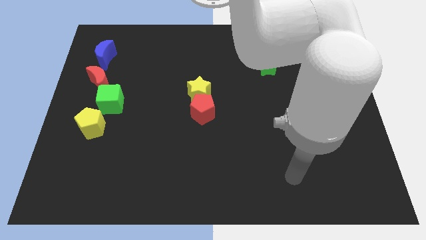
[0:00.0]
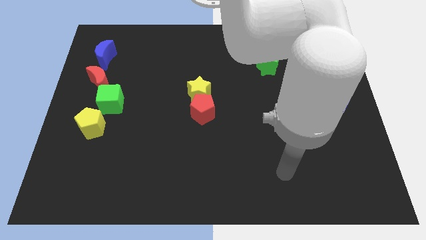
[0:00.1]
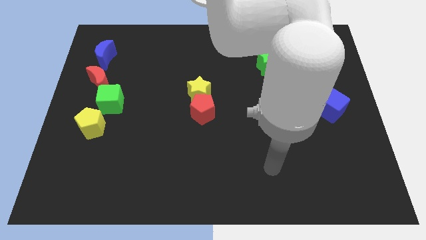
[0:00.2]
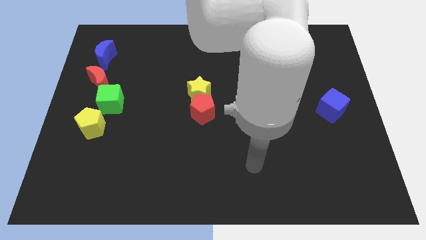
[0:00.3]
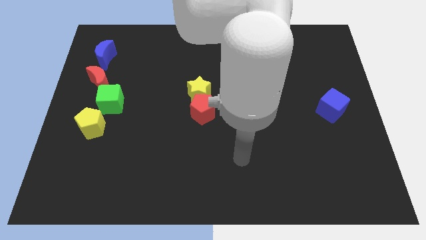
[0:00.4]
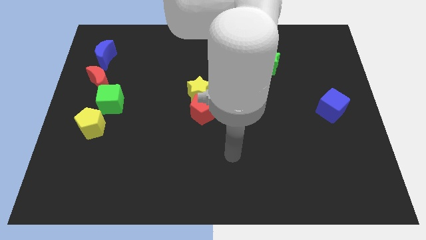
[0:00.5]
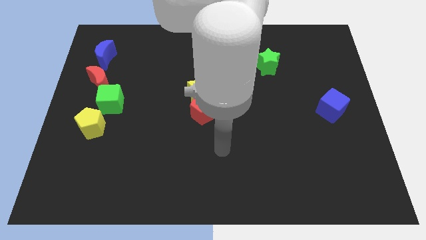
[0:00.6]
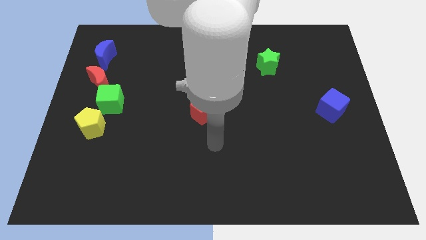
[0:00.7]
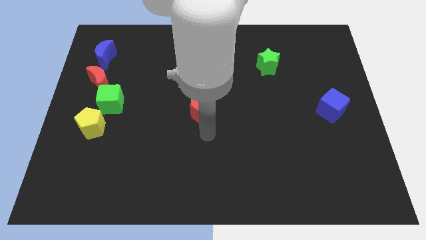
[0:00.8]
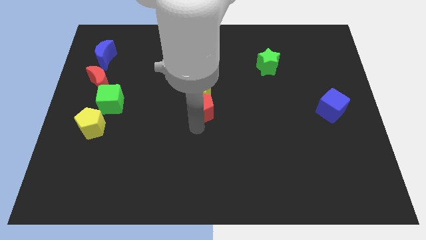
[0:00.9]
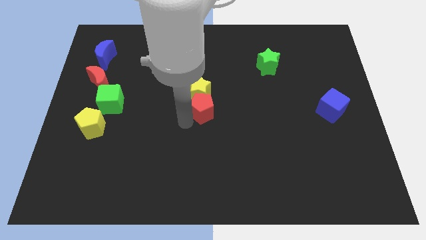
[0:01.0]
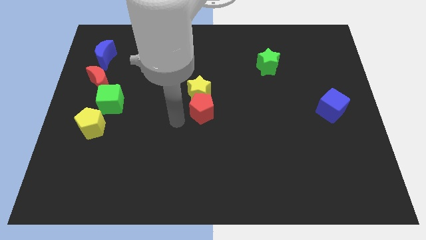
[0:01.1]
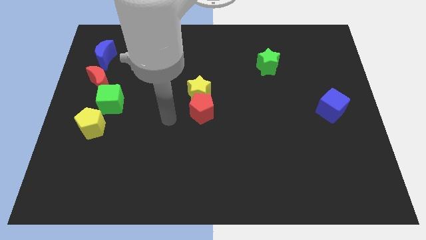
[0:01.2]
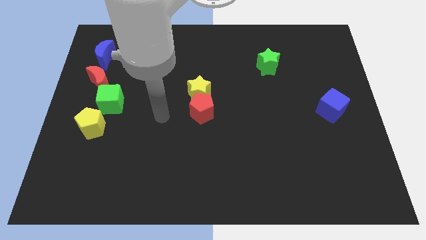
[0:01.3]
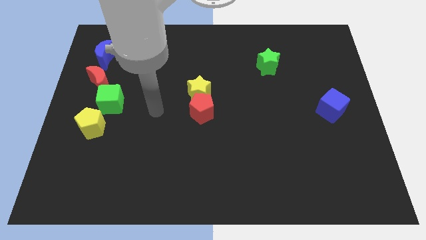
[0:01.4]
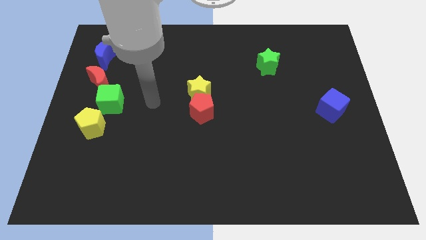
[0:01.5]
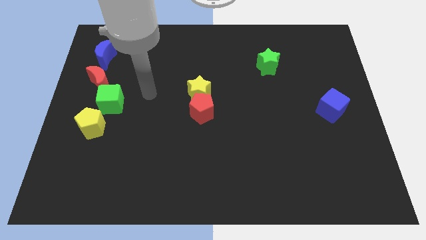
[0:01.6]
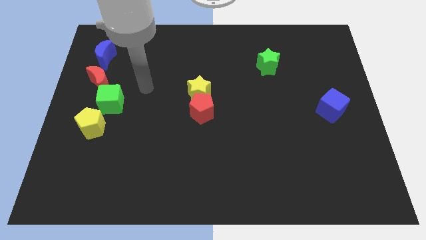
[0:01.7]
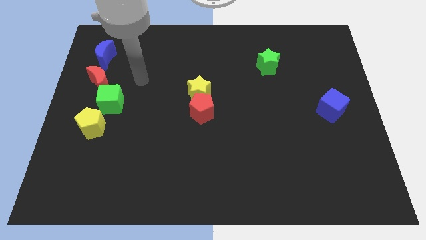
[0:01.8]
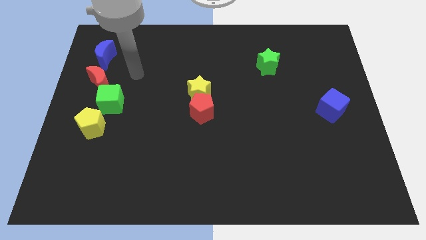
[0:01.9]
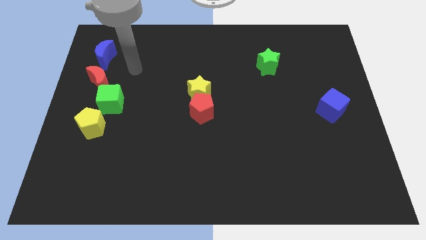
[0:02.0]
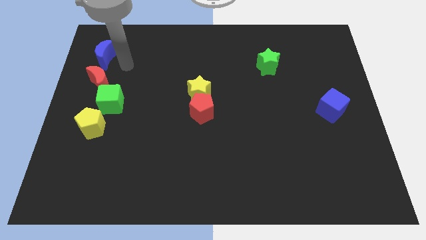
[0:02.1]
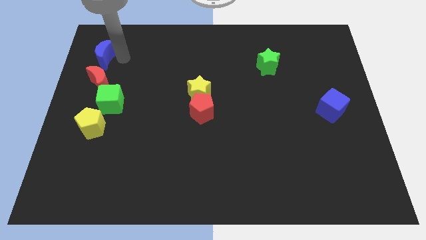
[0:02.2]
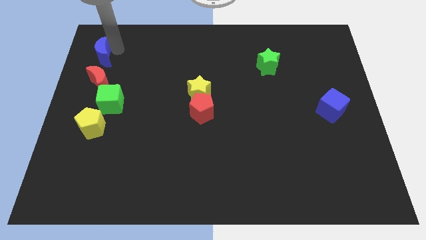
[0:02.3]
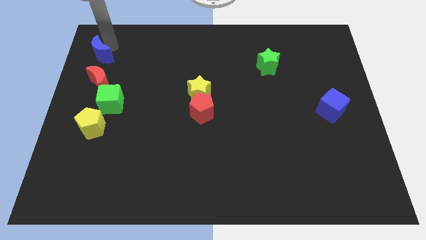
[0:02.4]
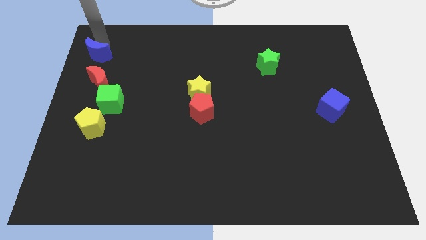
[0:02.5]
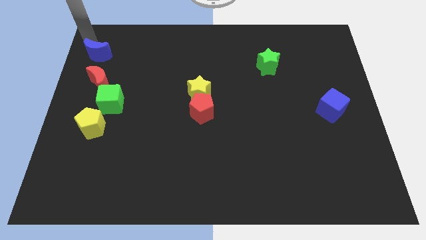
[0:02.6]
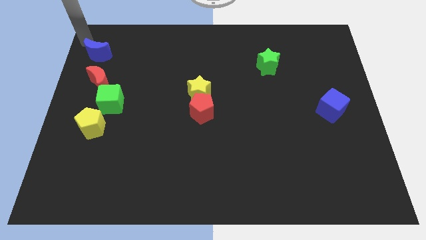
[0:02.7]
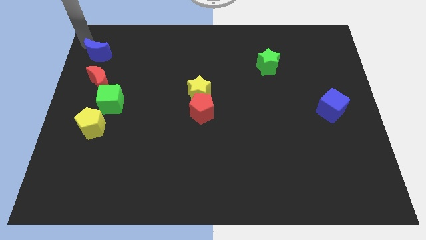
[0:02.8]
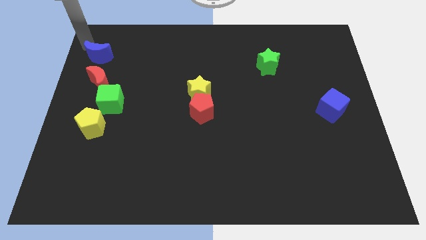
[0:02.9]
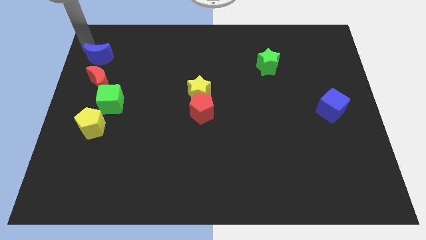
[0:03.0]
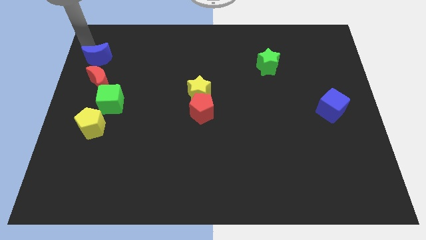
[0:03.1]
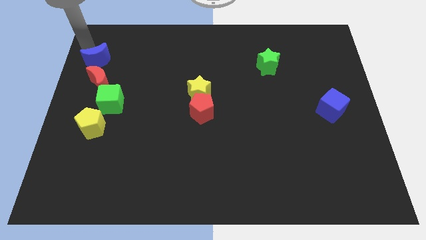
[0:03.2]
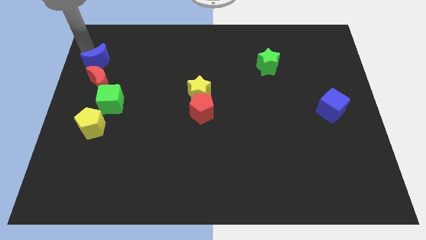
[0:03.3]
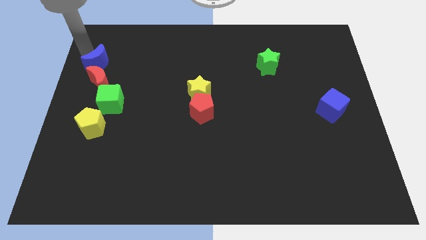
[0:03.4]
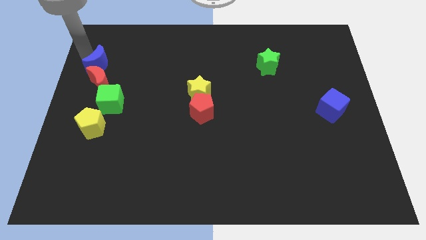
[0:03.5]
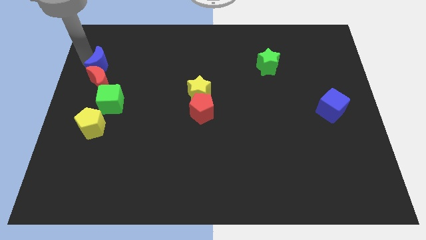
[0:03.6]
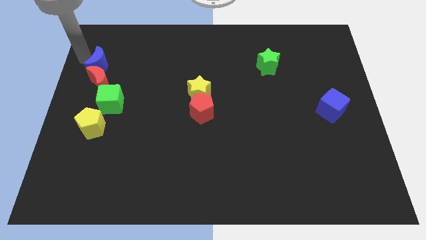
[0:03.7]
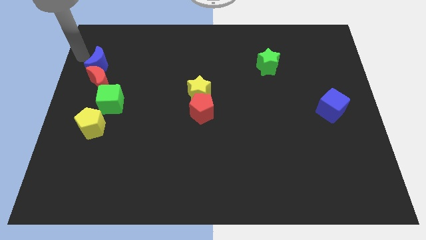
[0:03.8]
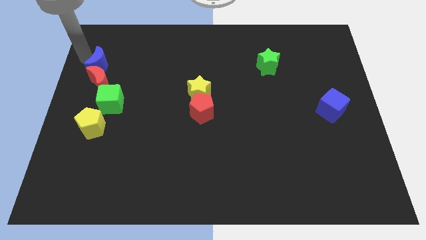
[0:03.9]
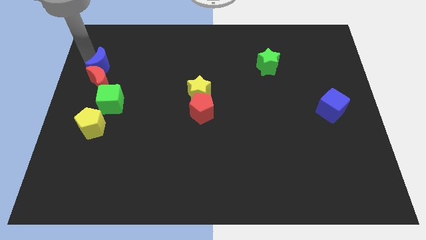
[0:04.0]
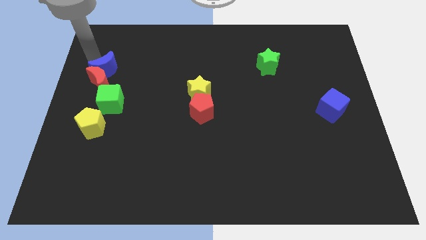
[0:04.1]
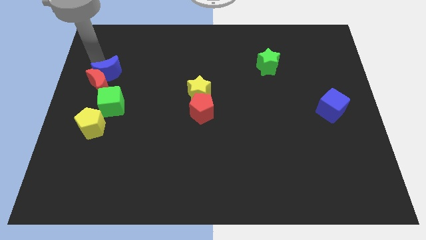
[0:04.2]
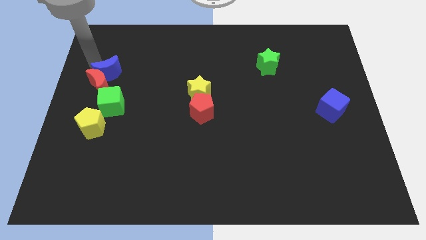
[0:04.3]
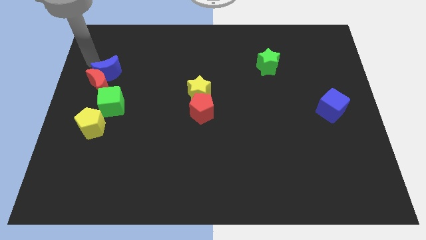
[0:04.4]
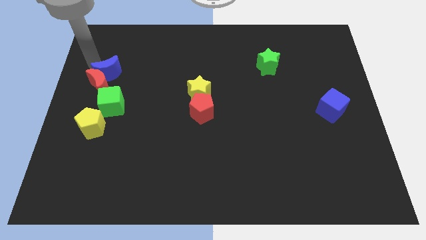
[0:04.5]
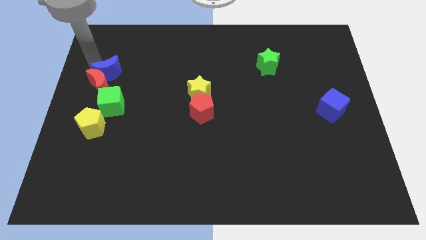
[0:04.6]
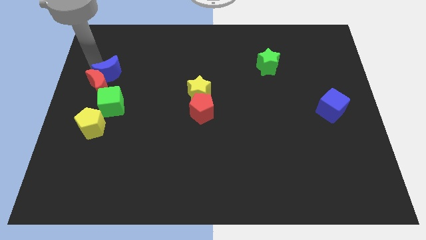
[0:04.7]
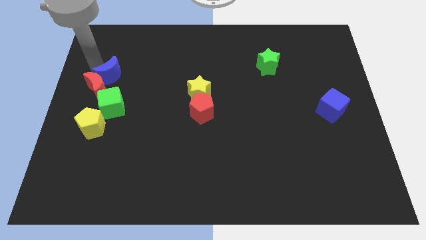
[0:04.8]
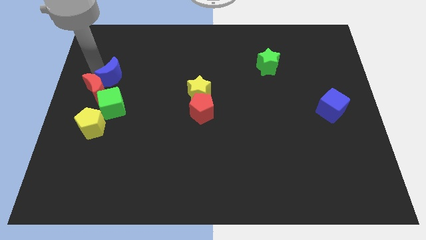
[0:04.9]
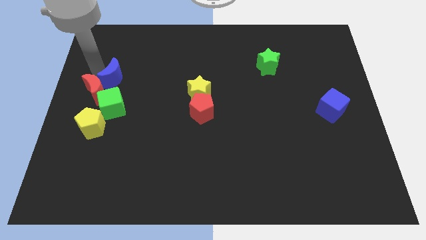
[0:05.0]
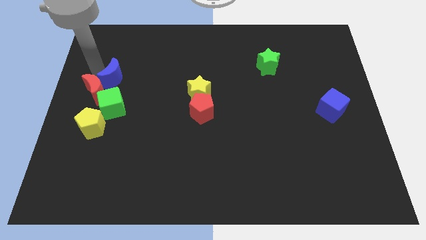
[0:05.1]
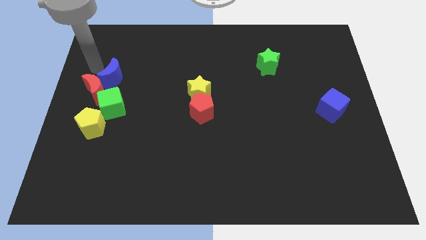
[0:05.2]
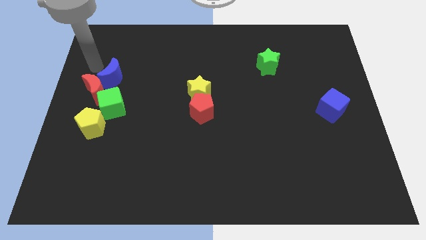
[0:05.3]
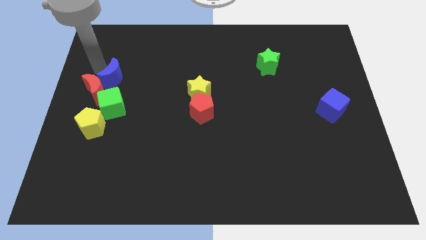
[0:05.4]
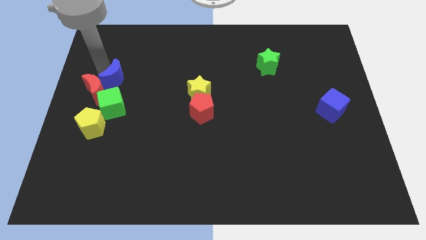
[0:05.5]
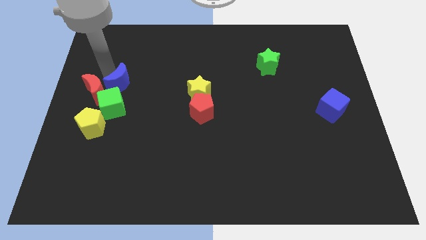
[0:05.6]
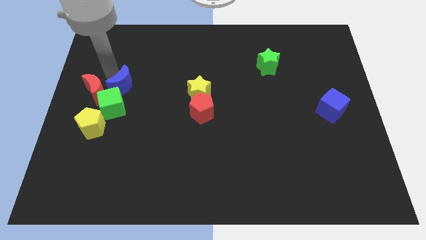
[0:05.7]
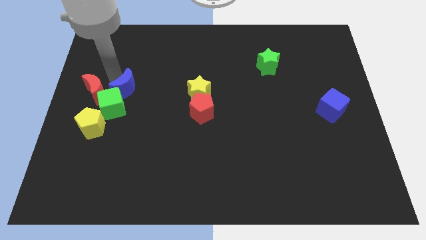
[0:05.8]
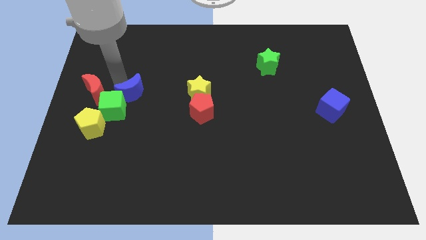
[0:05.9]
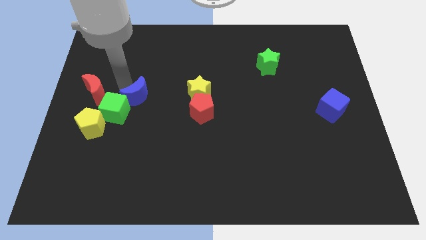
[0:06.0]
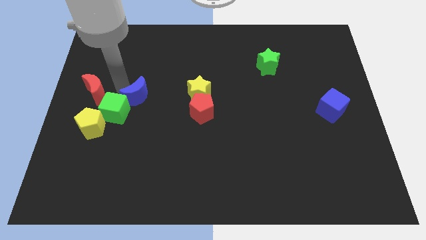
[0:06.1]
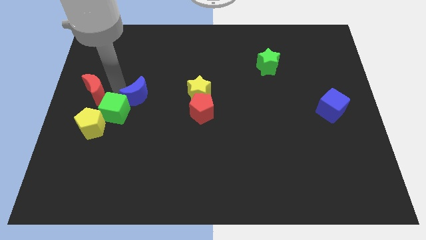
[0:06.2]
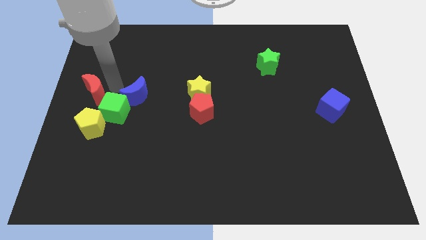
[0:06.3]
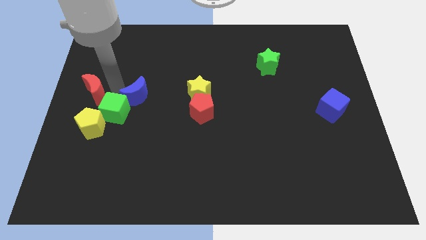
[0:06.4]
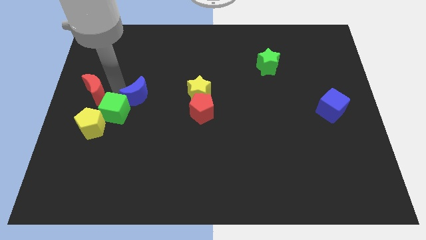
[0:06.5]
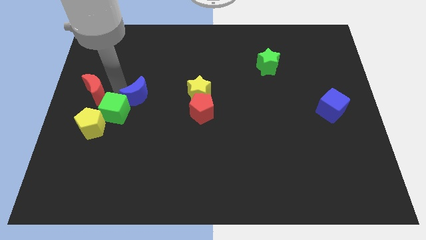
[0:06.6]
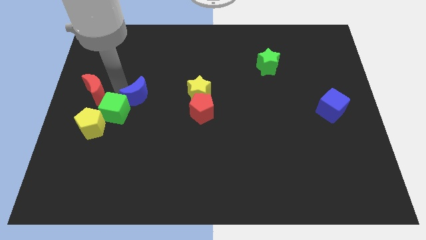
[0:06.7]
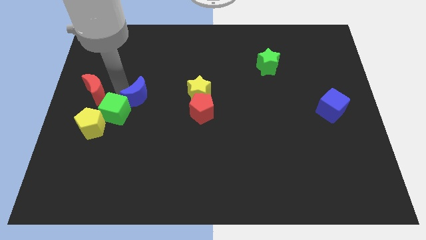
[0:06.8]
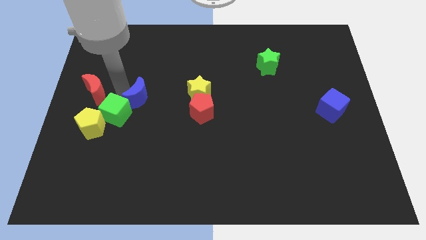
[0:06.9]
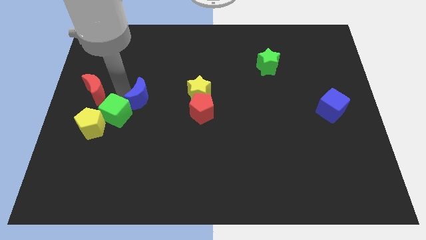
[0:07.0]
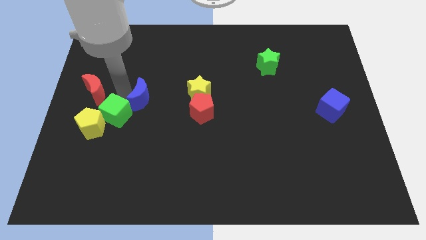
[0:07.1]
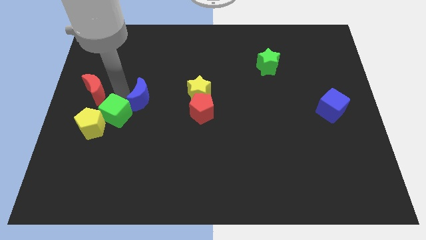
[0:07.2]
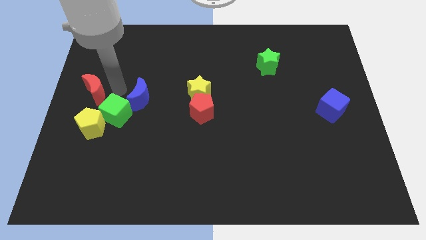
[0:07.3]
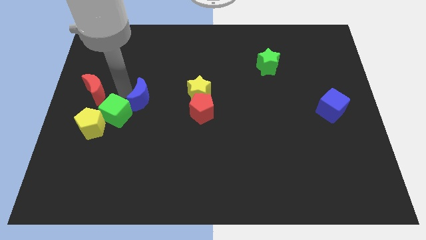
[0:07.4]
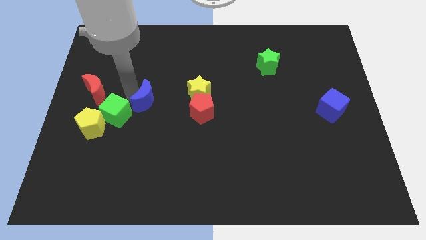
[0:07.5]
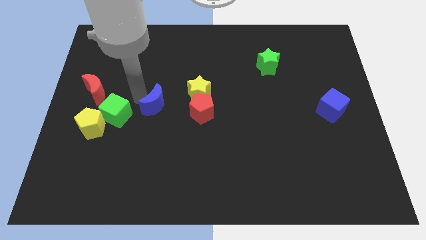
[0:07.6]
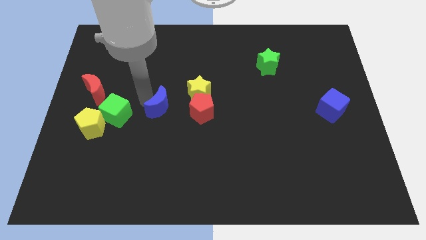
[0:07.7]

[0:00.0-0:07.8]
push the blue moon diagonally down and to the left of the yellow star
